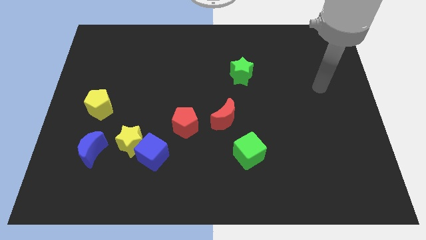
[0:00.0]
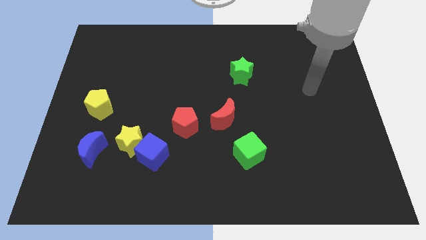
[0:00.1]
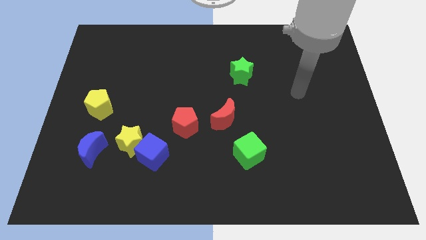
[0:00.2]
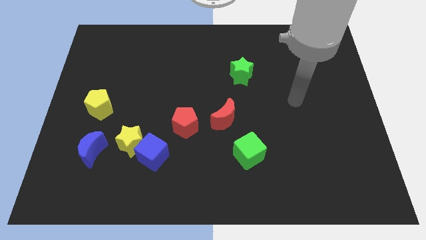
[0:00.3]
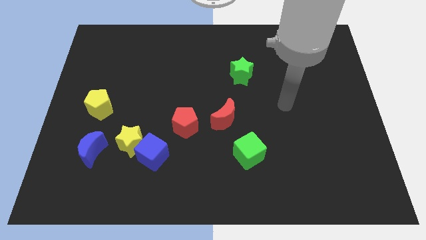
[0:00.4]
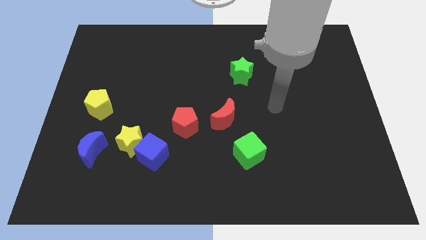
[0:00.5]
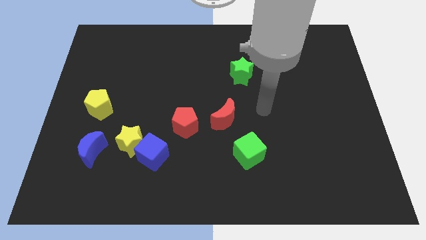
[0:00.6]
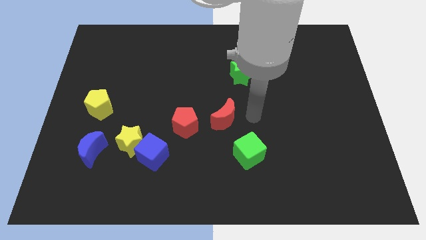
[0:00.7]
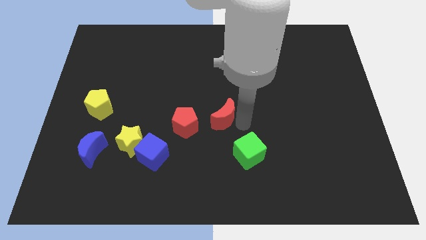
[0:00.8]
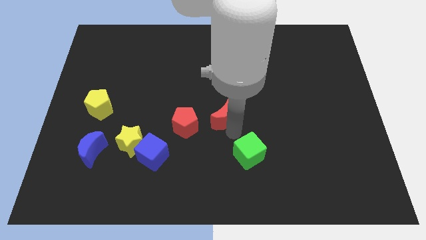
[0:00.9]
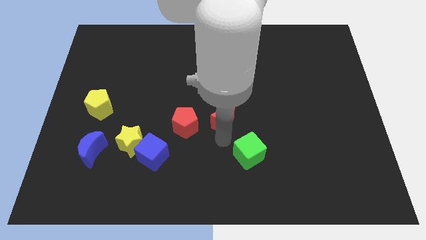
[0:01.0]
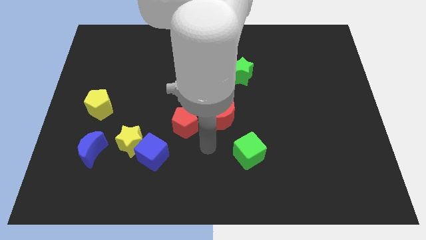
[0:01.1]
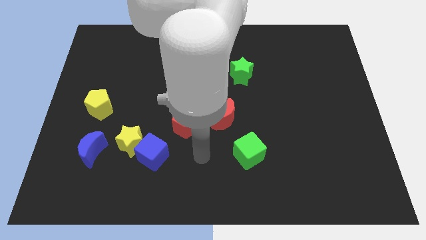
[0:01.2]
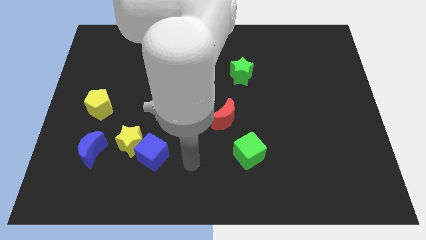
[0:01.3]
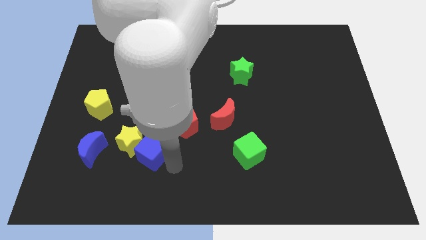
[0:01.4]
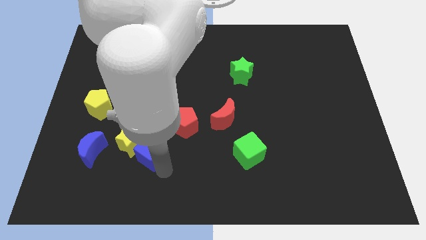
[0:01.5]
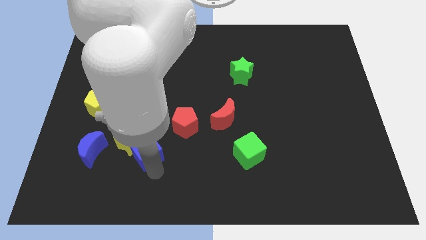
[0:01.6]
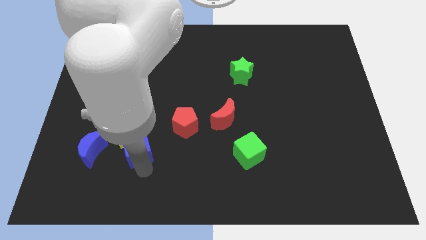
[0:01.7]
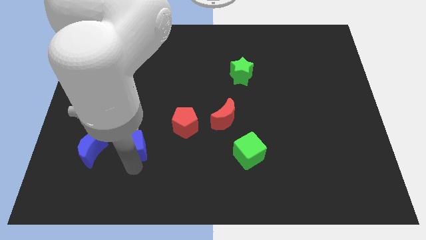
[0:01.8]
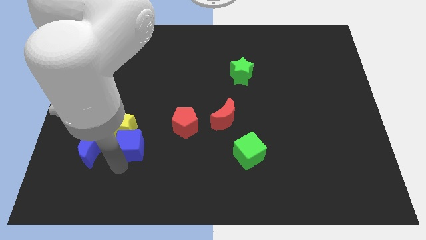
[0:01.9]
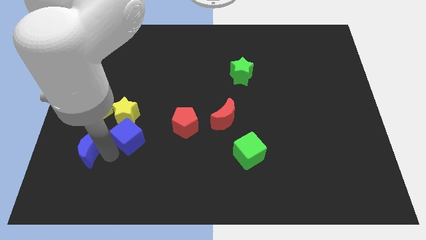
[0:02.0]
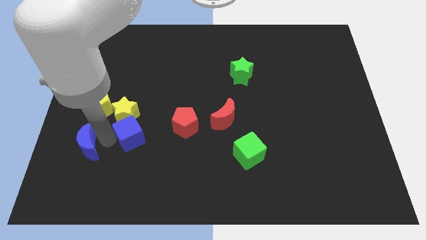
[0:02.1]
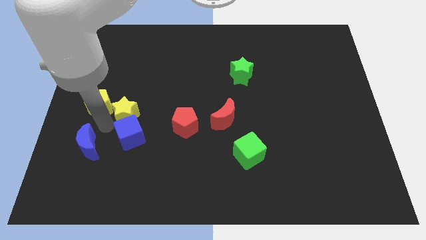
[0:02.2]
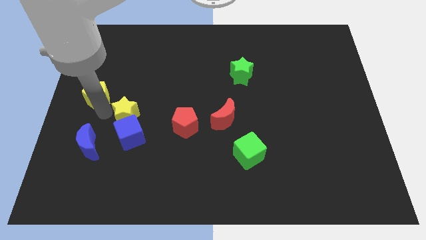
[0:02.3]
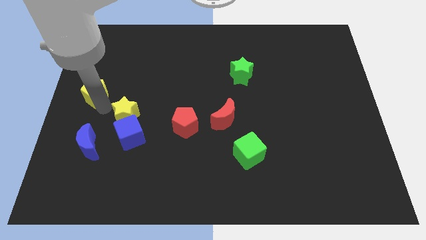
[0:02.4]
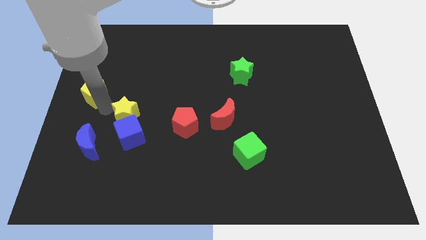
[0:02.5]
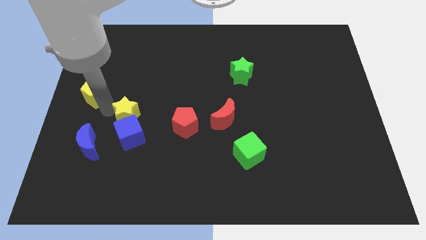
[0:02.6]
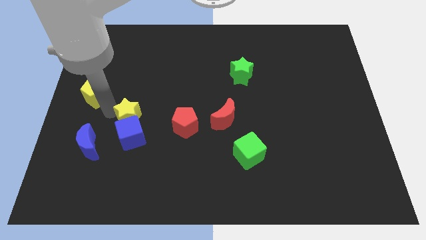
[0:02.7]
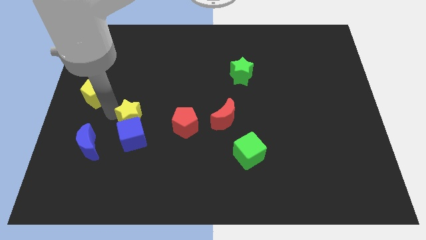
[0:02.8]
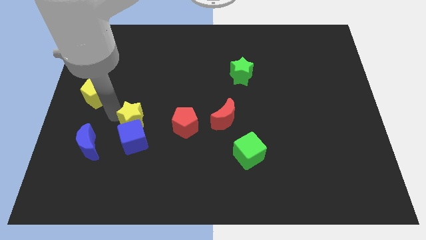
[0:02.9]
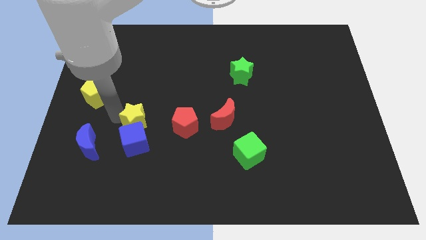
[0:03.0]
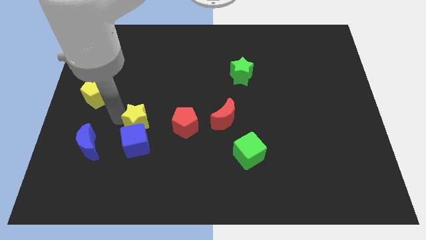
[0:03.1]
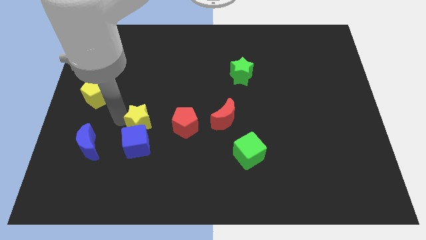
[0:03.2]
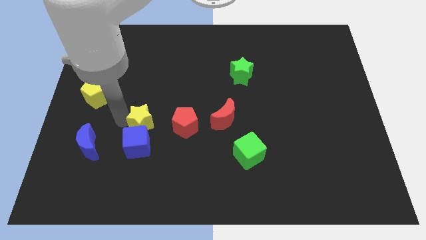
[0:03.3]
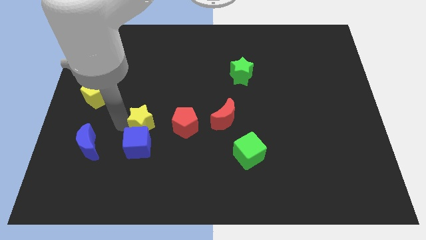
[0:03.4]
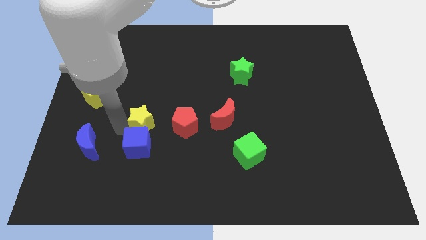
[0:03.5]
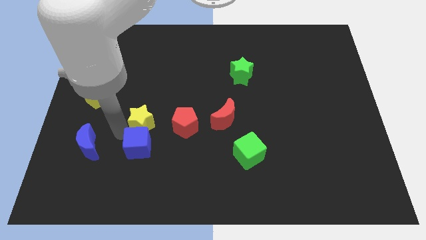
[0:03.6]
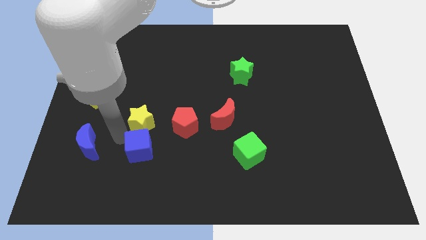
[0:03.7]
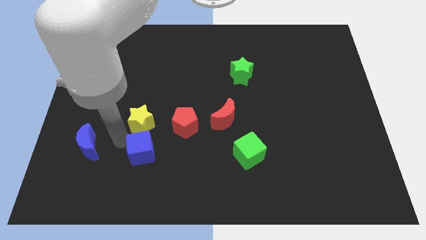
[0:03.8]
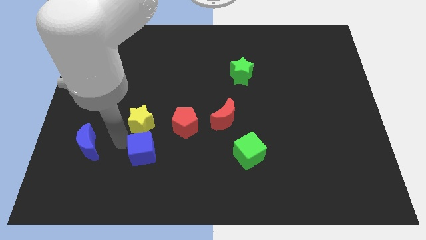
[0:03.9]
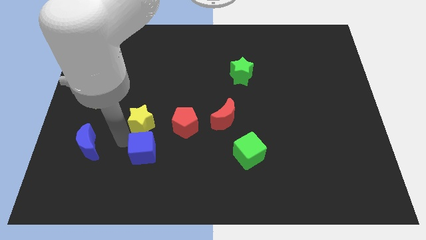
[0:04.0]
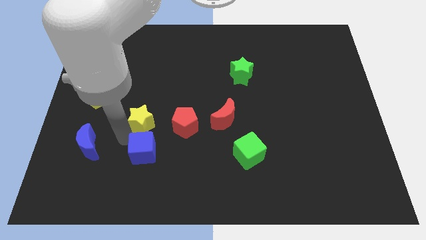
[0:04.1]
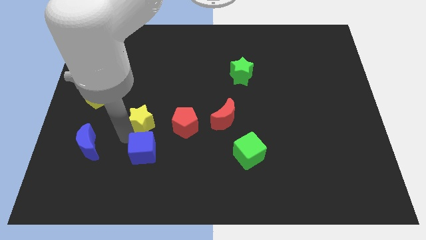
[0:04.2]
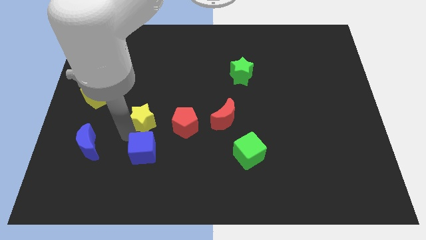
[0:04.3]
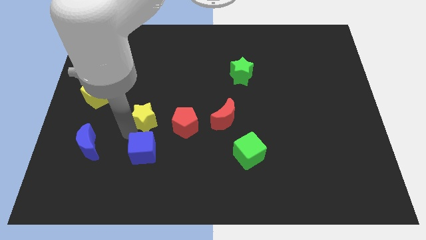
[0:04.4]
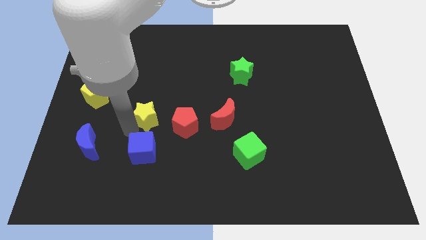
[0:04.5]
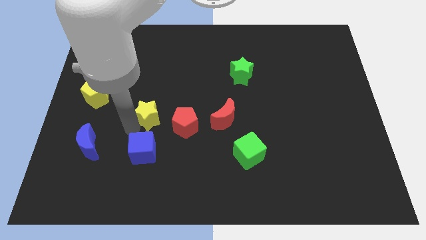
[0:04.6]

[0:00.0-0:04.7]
pull the yellow star apart from the blue cube and blue moon

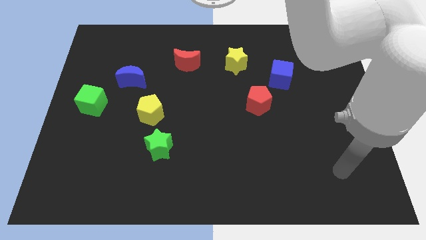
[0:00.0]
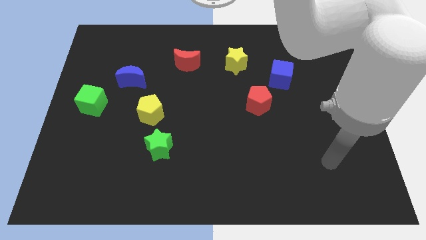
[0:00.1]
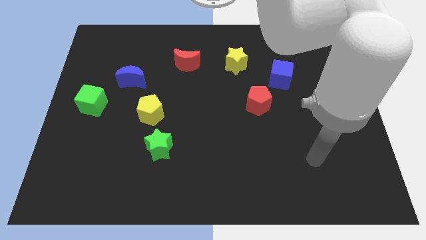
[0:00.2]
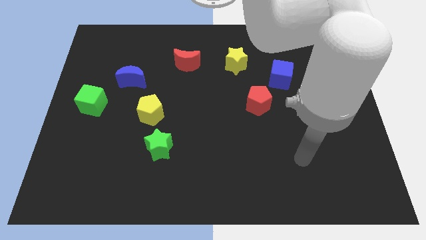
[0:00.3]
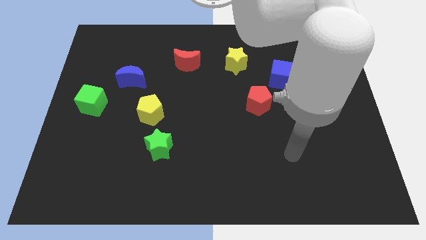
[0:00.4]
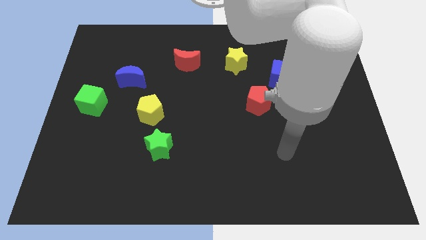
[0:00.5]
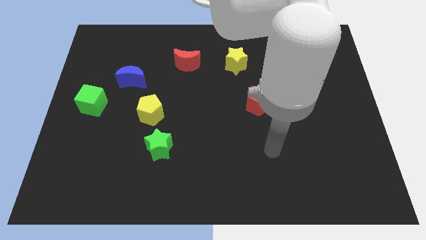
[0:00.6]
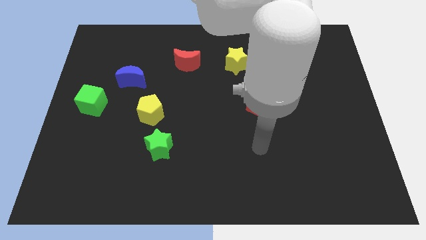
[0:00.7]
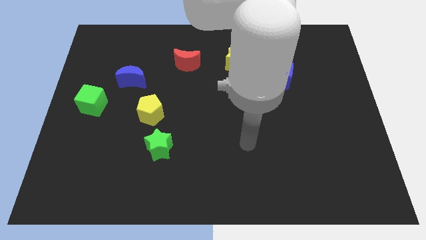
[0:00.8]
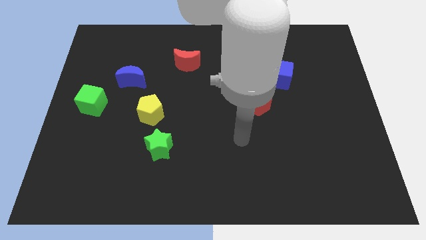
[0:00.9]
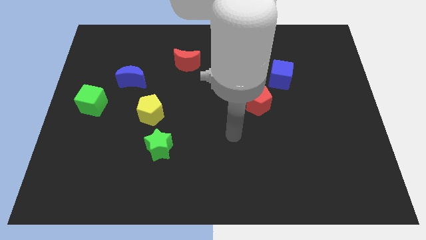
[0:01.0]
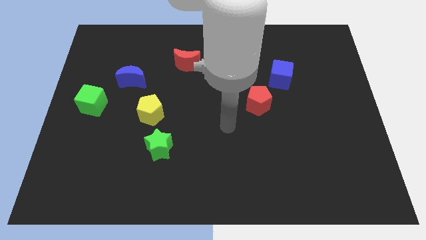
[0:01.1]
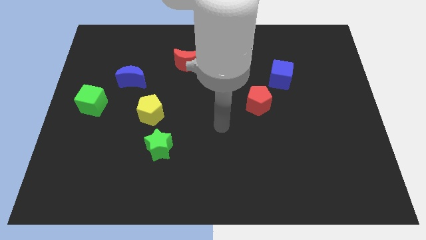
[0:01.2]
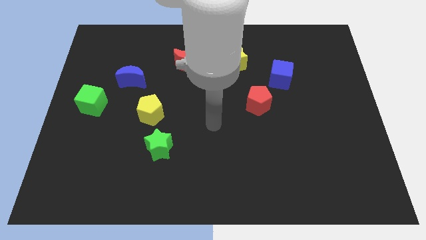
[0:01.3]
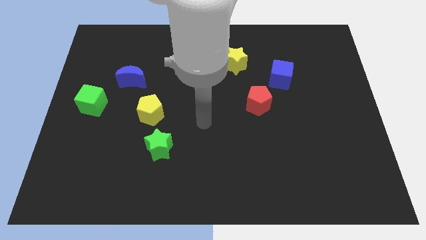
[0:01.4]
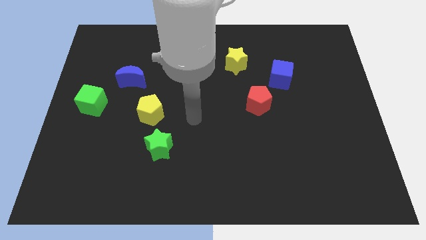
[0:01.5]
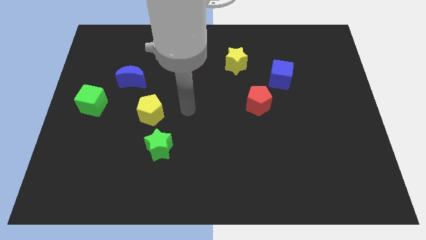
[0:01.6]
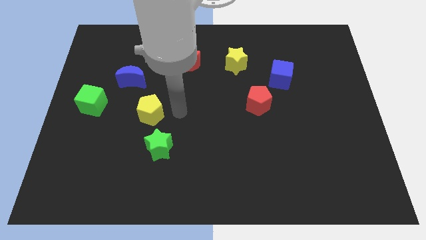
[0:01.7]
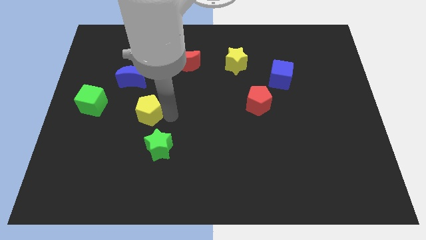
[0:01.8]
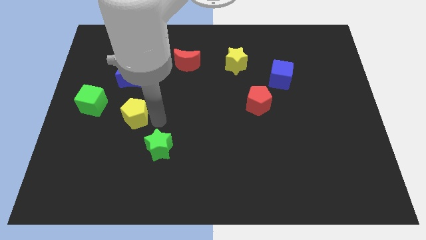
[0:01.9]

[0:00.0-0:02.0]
move the green star away from the yellow pentagon

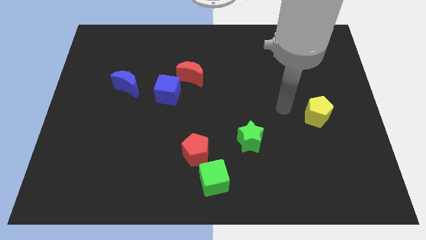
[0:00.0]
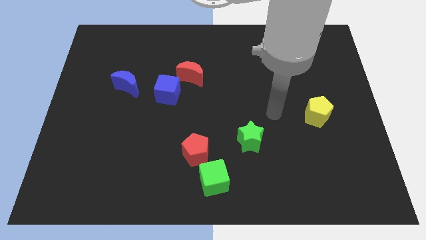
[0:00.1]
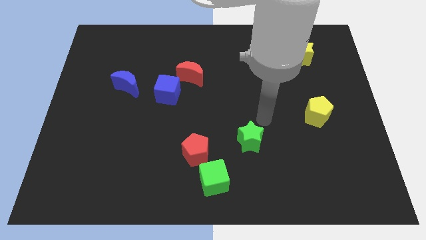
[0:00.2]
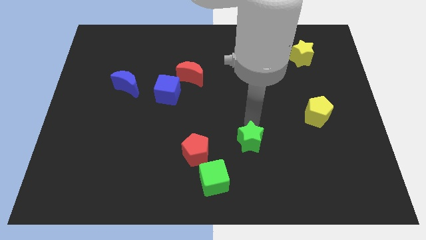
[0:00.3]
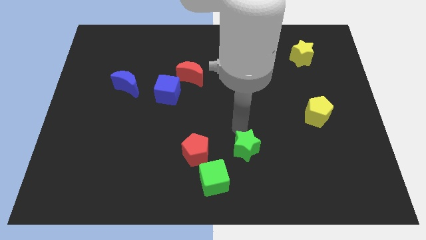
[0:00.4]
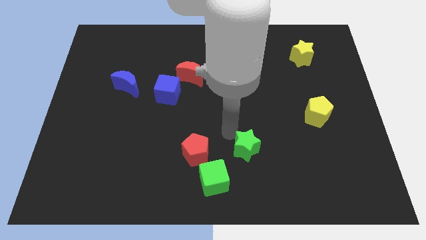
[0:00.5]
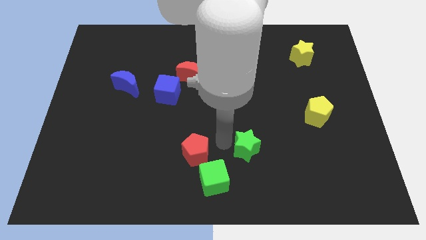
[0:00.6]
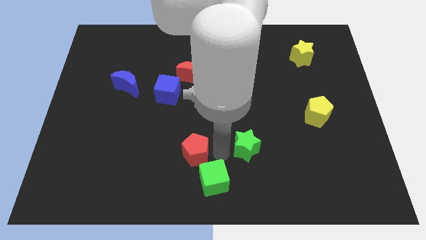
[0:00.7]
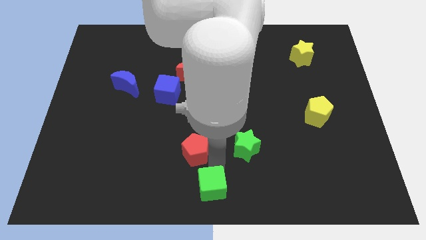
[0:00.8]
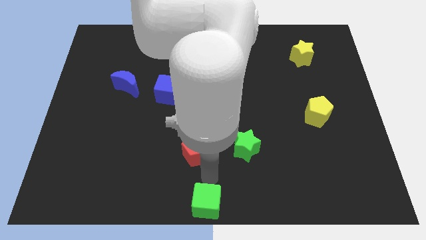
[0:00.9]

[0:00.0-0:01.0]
move the red pentagon away from the green cube

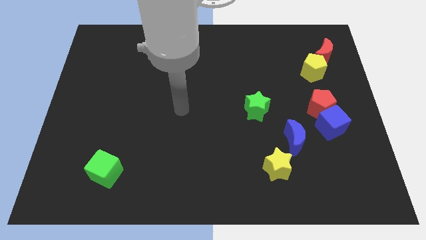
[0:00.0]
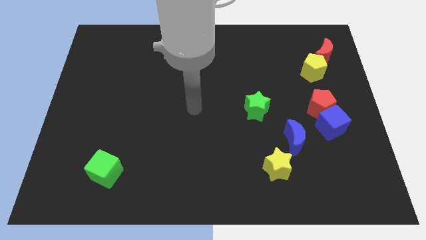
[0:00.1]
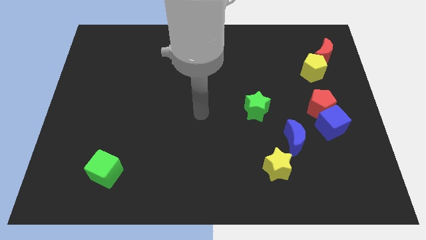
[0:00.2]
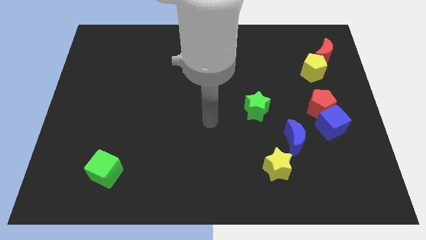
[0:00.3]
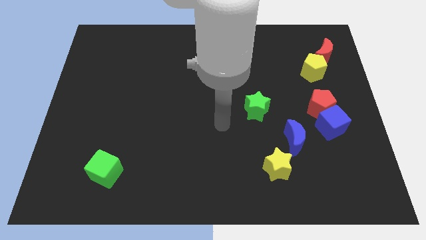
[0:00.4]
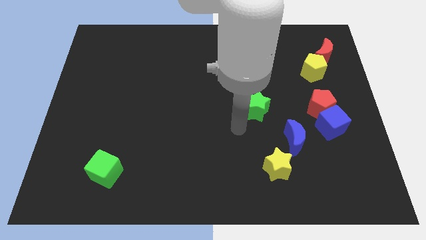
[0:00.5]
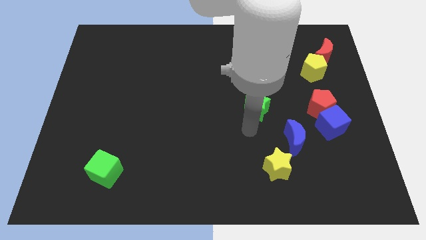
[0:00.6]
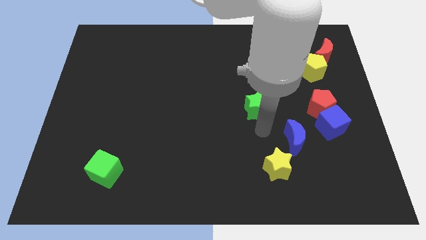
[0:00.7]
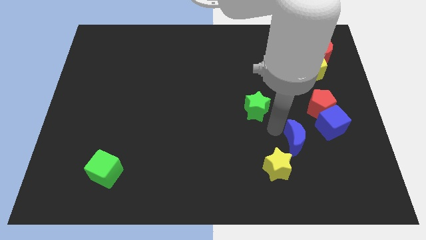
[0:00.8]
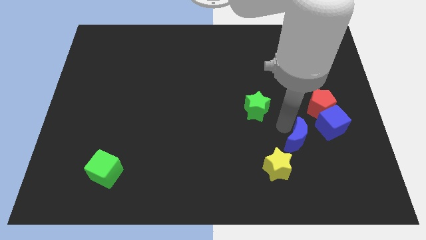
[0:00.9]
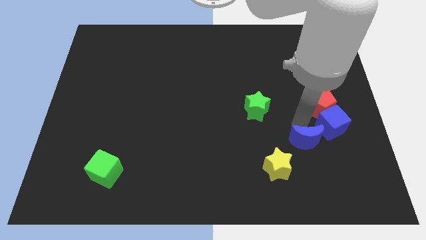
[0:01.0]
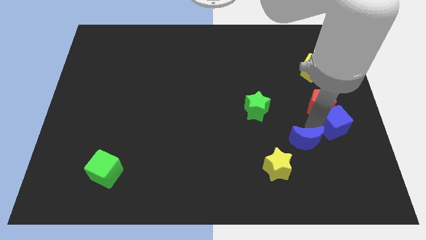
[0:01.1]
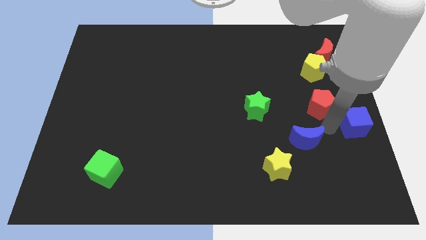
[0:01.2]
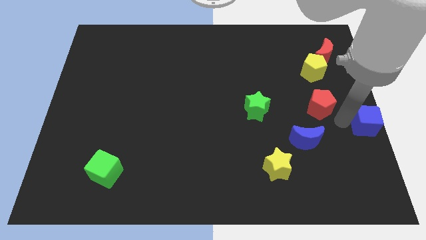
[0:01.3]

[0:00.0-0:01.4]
pull the red pentagon apart from the blue cube

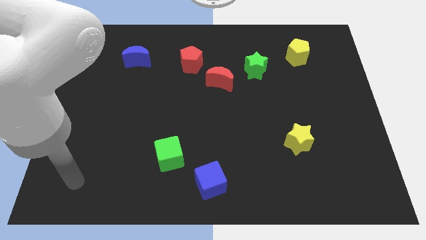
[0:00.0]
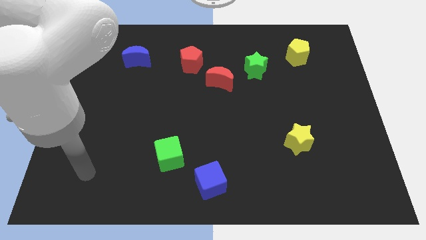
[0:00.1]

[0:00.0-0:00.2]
pull the red pentagon apart from the red moon

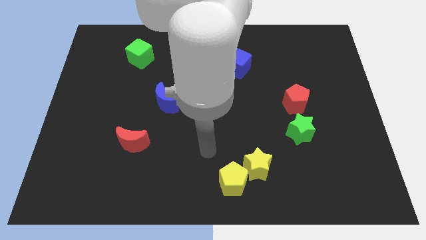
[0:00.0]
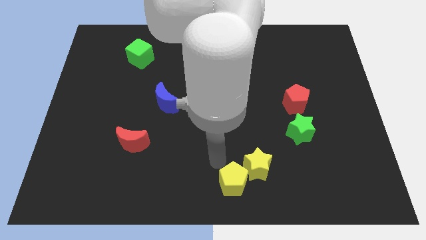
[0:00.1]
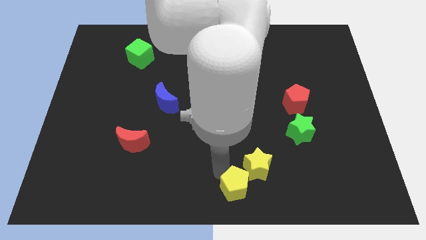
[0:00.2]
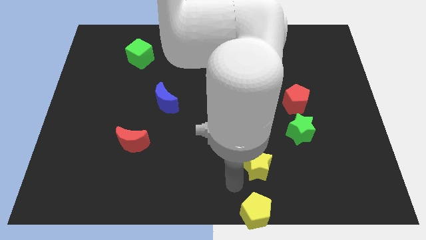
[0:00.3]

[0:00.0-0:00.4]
separate the yellow star from the yellow pentagon
